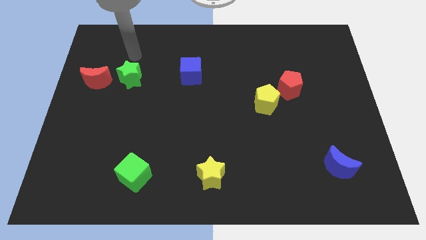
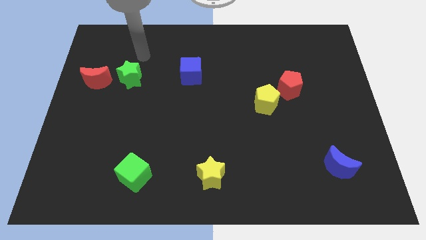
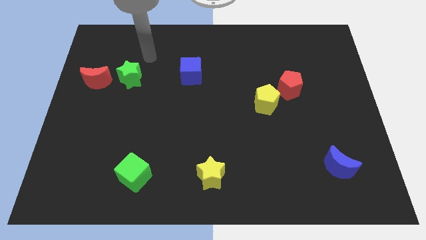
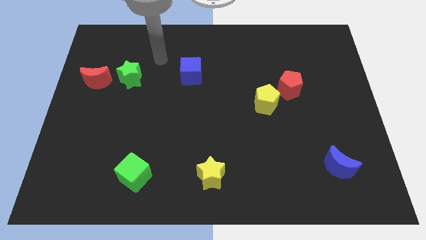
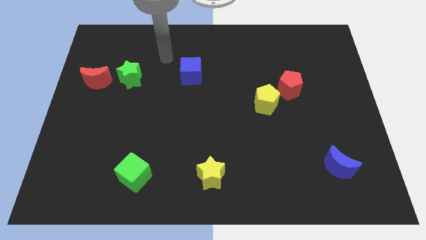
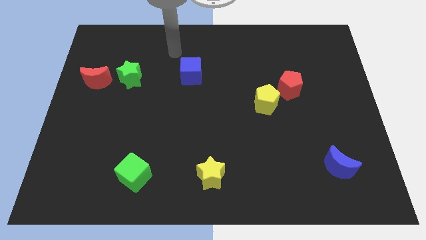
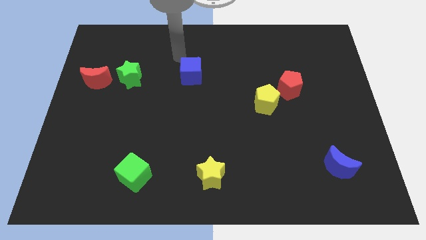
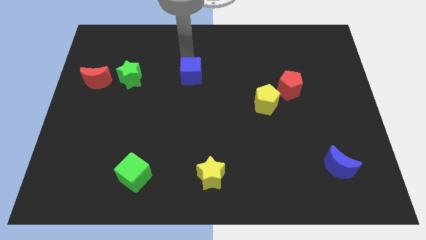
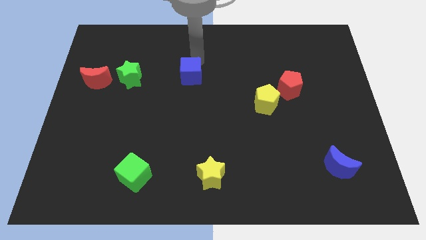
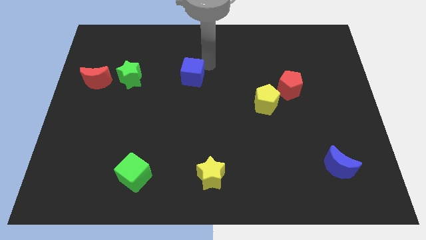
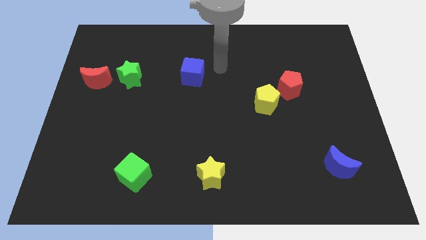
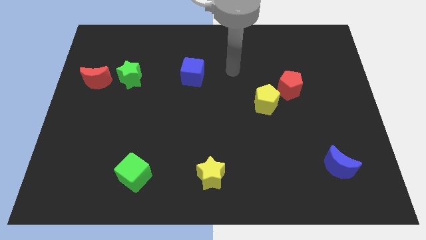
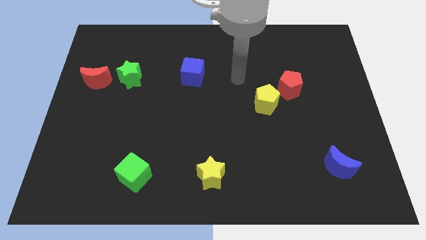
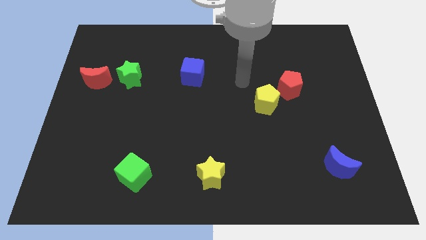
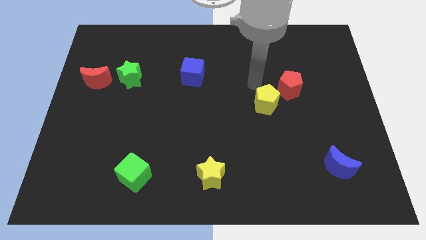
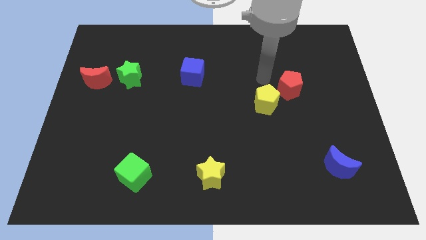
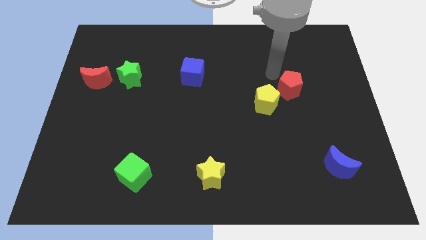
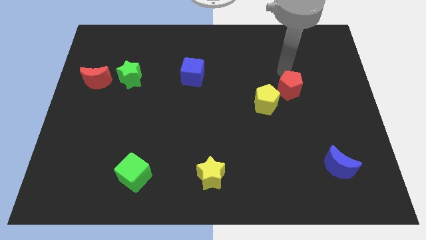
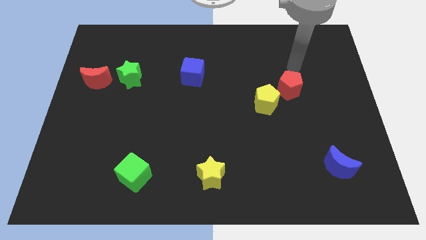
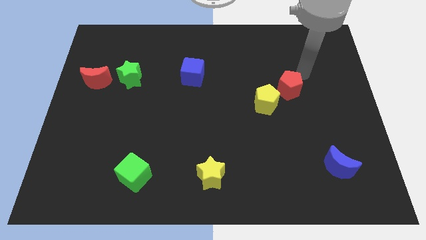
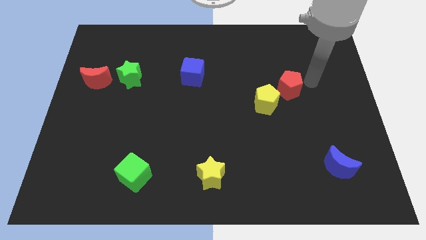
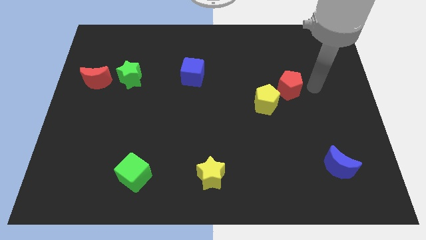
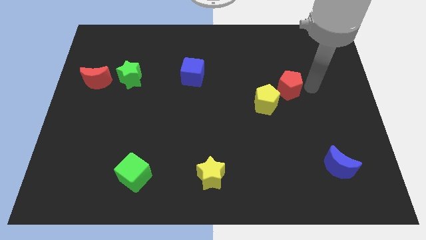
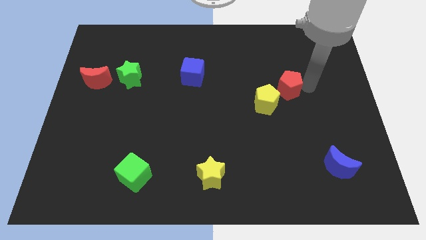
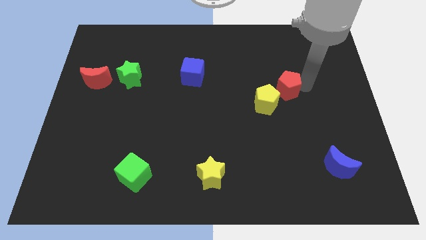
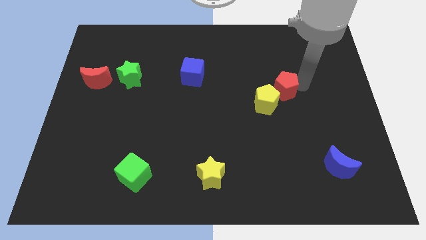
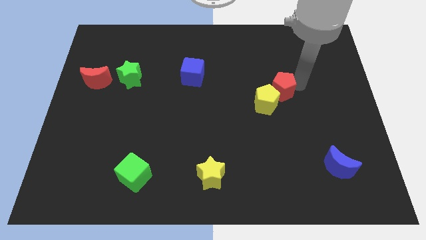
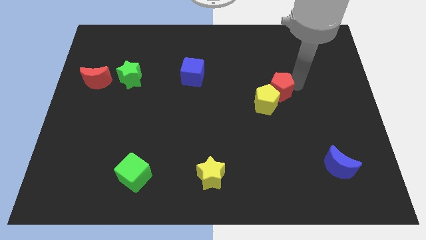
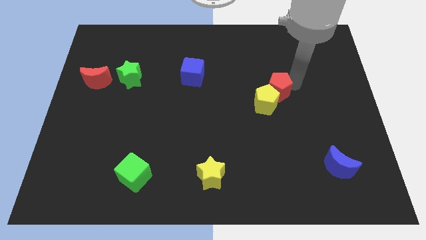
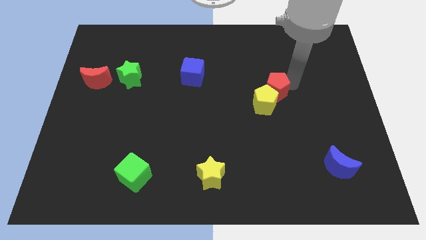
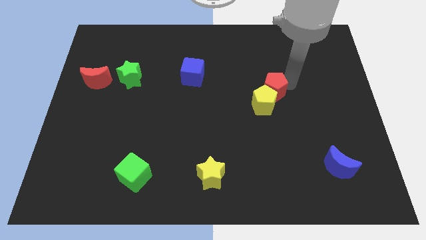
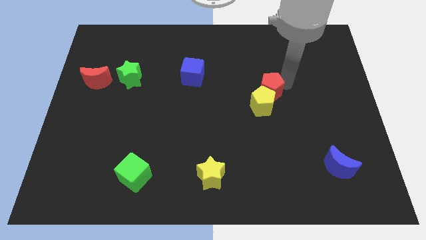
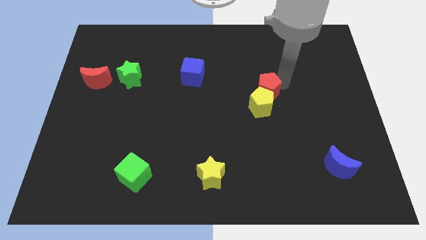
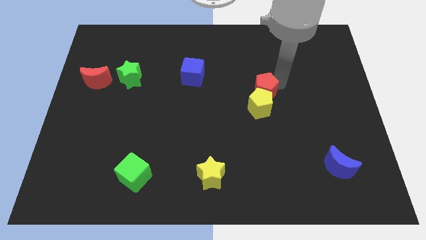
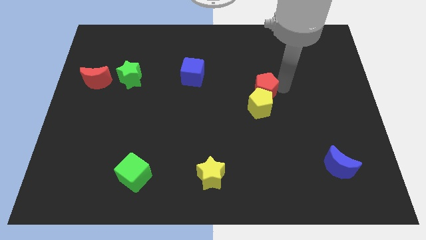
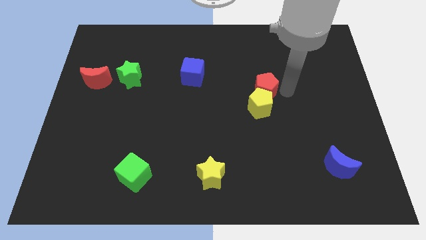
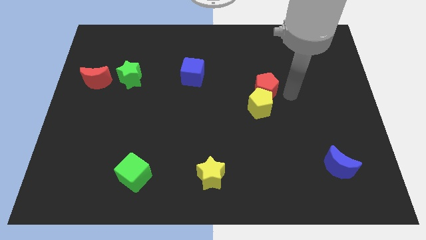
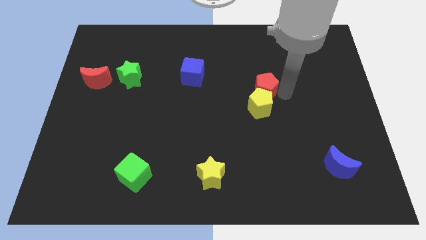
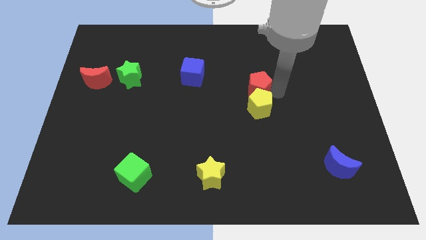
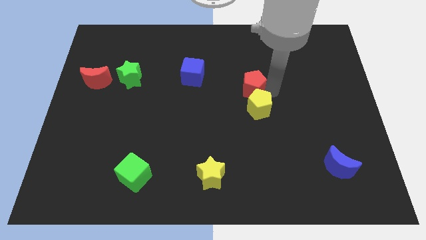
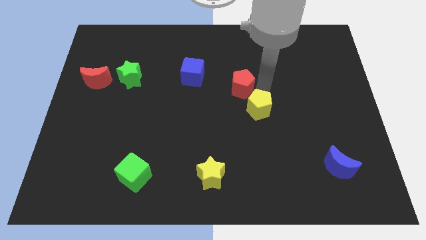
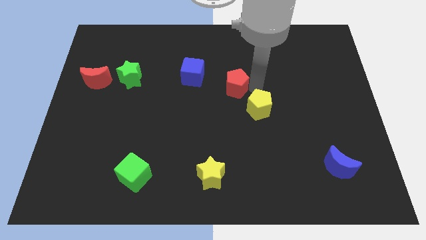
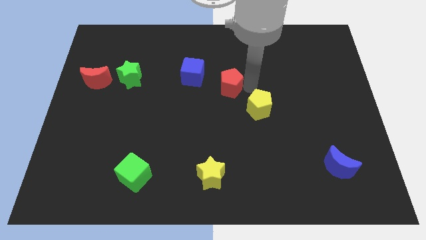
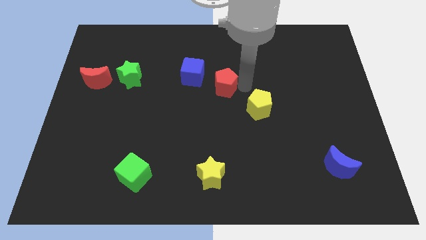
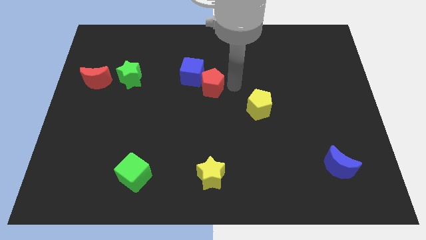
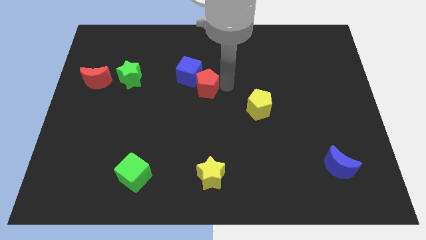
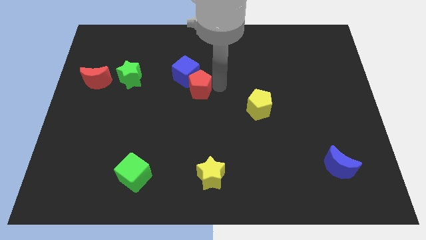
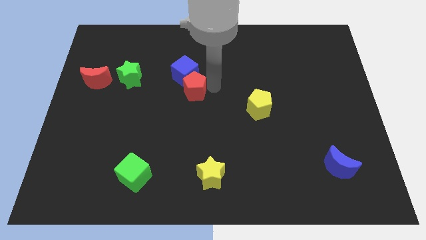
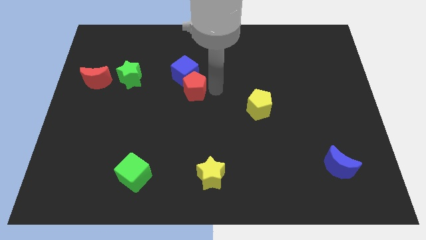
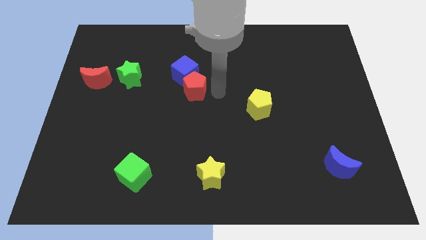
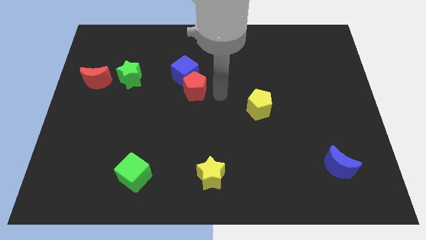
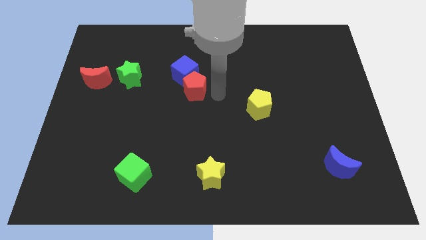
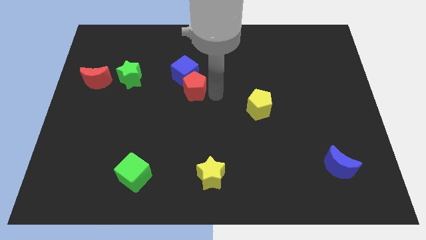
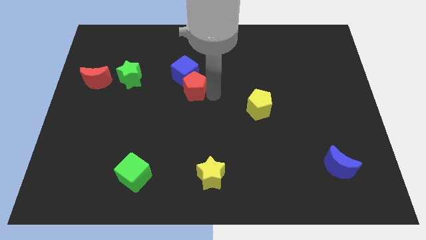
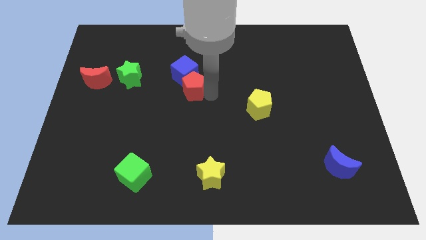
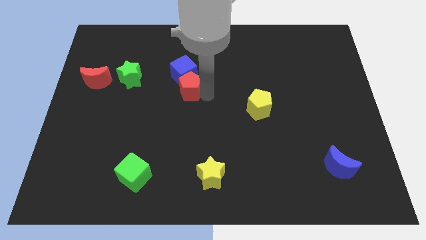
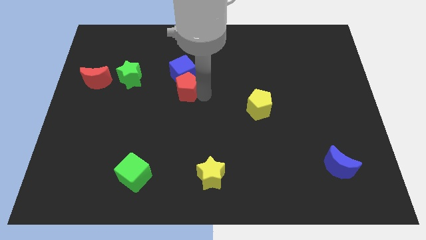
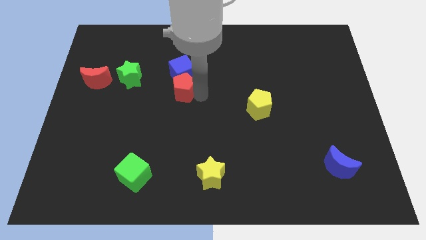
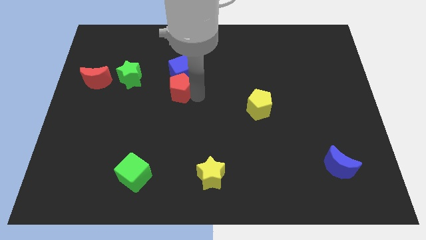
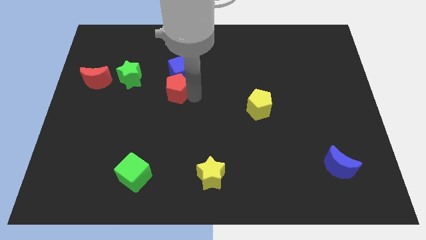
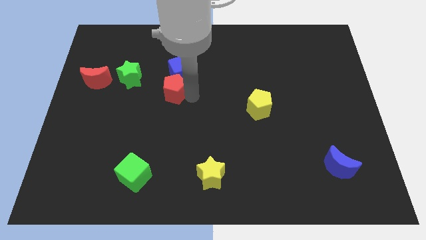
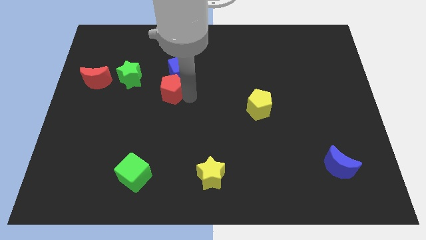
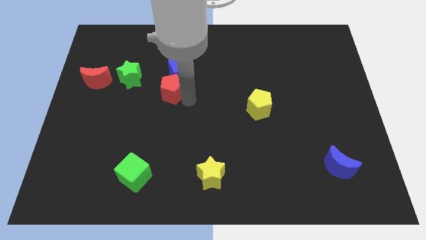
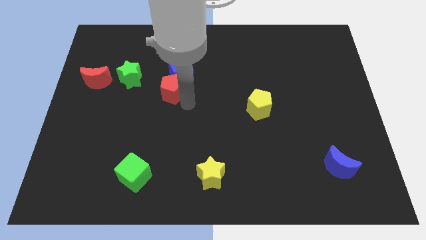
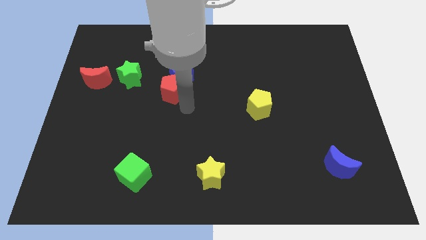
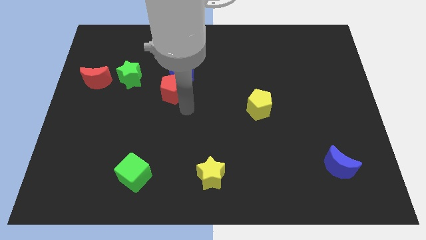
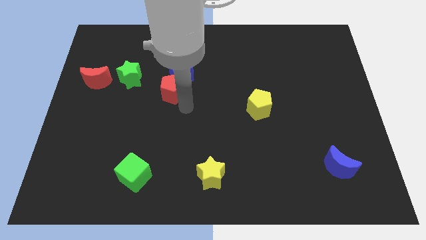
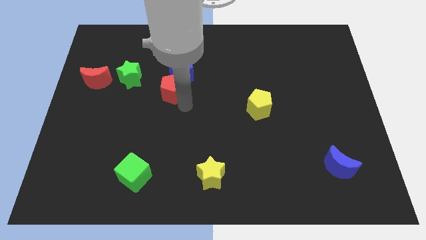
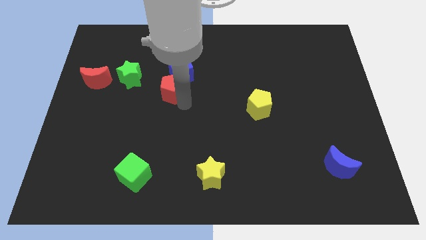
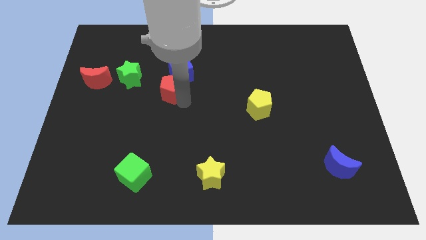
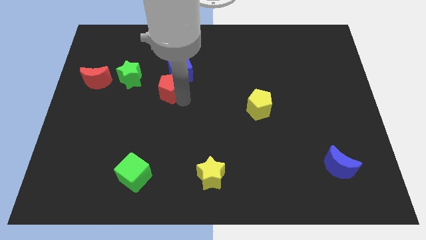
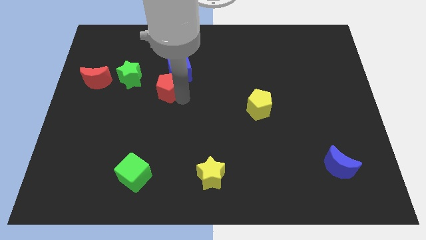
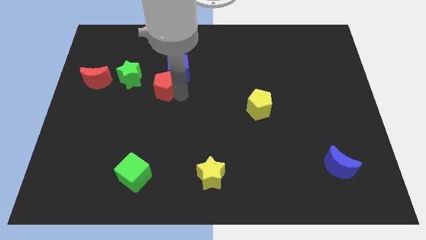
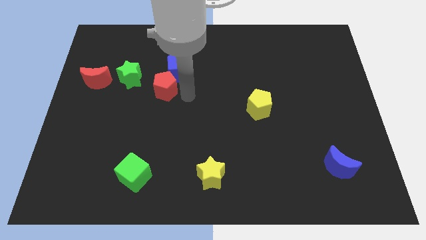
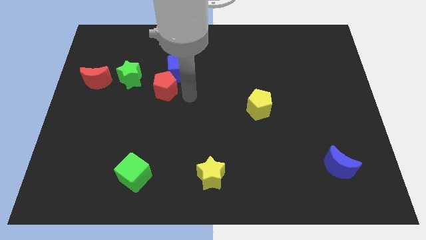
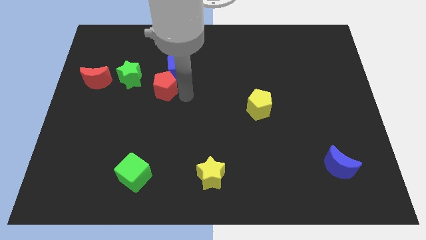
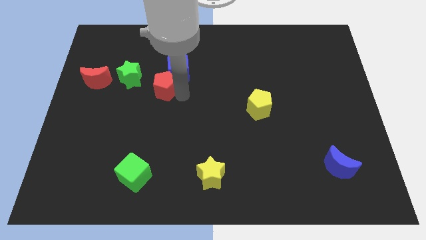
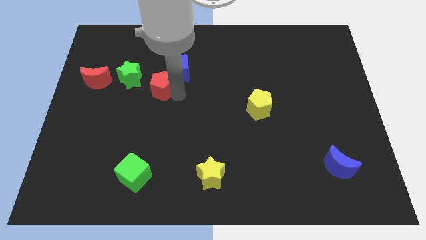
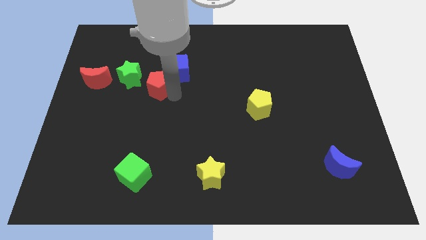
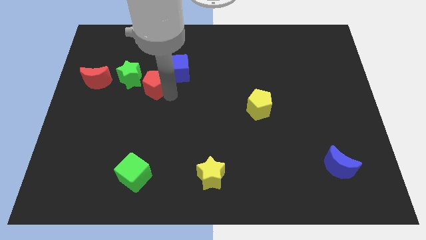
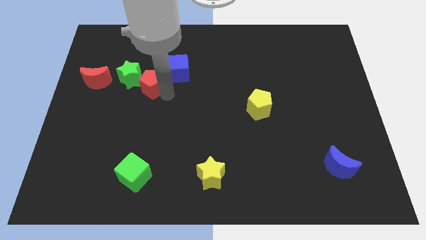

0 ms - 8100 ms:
move the red pentagon next to the green star
